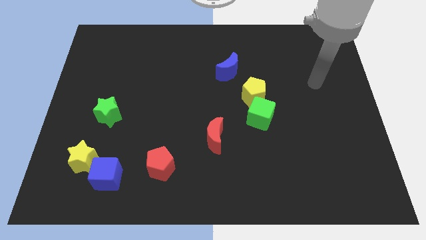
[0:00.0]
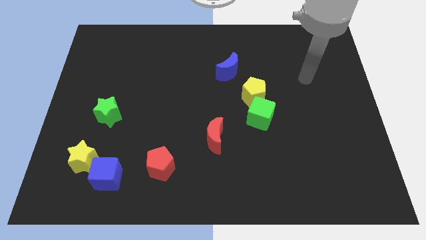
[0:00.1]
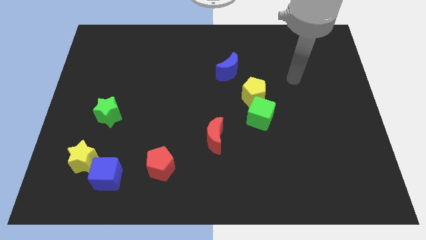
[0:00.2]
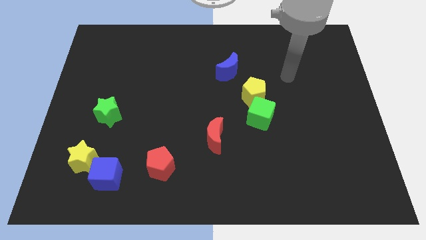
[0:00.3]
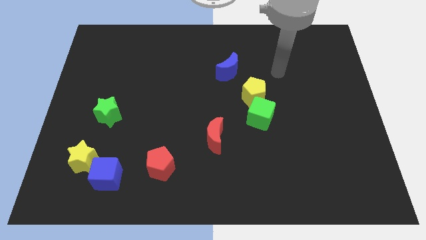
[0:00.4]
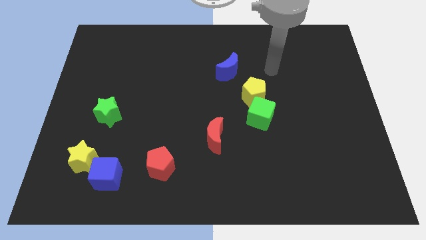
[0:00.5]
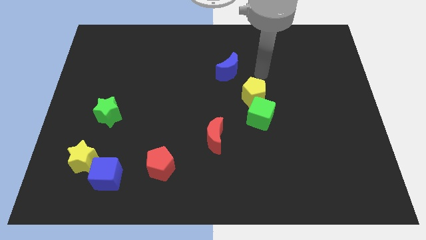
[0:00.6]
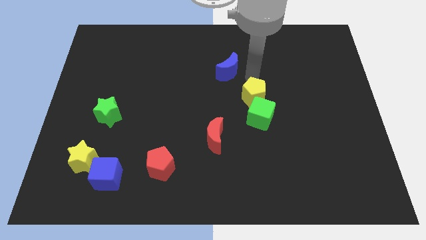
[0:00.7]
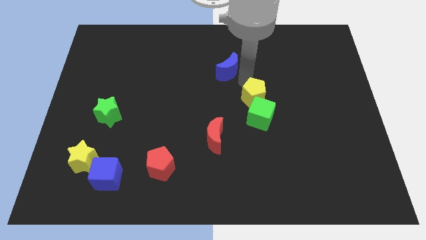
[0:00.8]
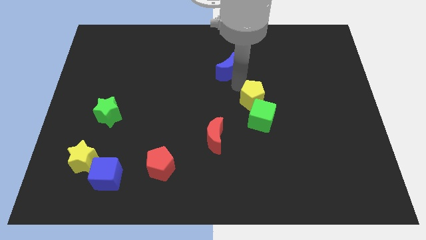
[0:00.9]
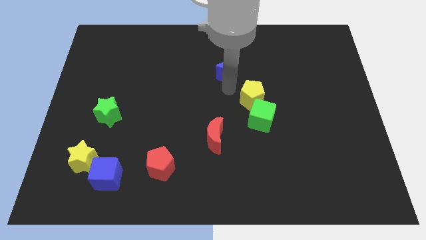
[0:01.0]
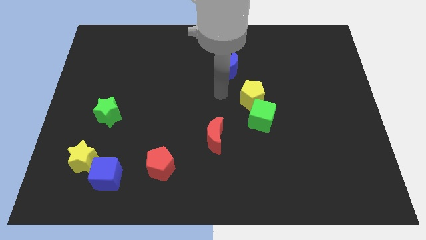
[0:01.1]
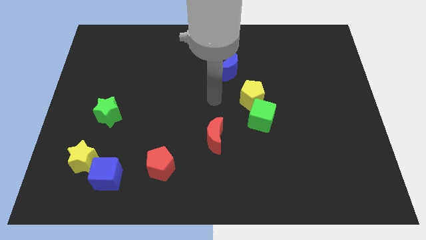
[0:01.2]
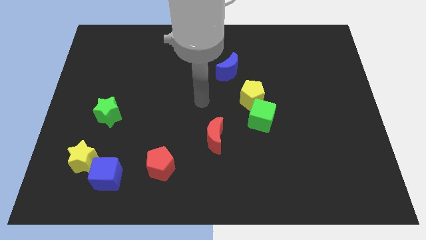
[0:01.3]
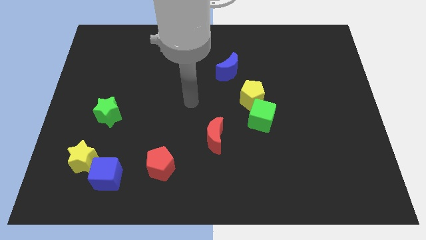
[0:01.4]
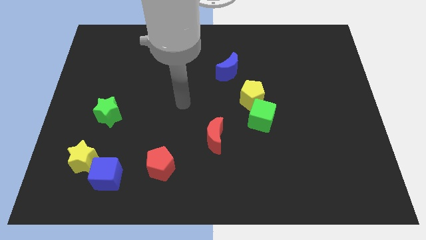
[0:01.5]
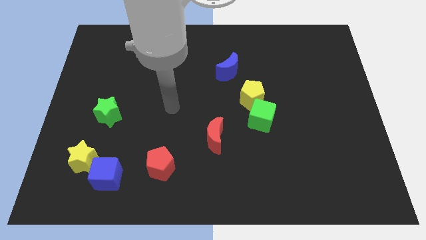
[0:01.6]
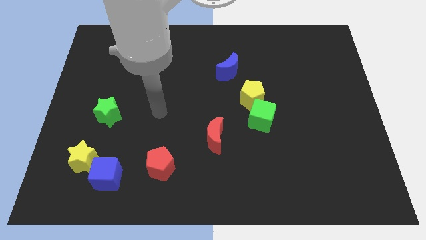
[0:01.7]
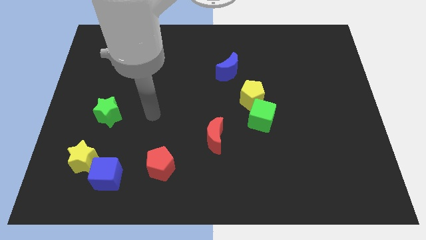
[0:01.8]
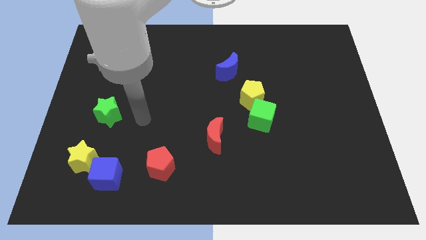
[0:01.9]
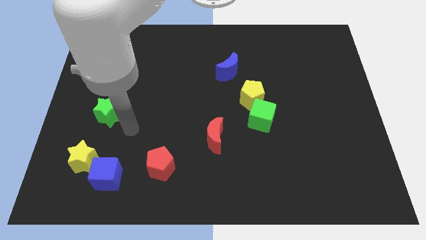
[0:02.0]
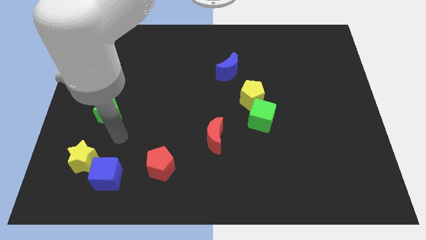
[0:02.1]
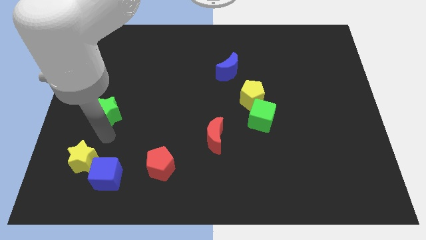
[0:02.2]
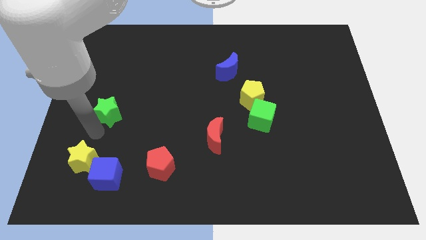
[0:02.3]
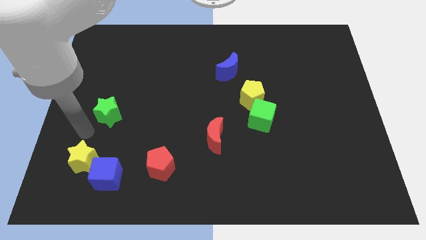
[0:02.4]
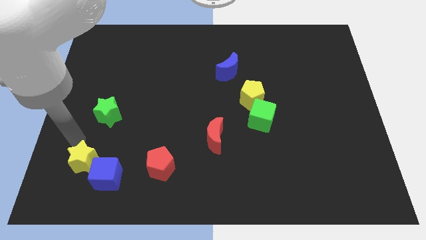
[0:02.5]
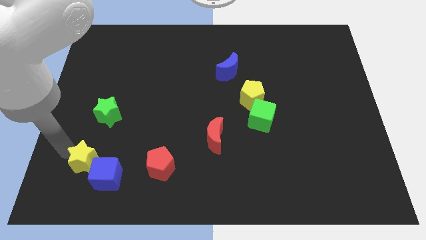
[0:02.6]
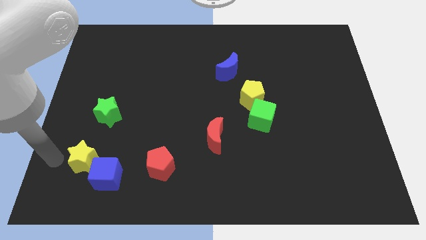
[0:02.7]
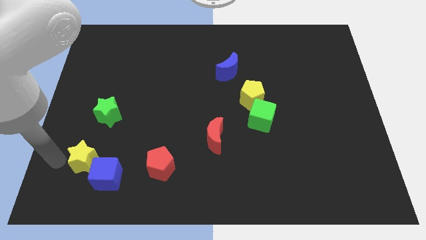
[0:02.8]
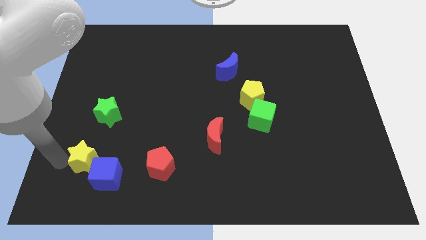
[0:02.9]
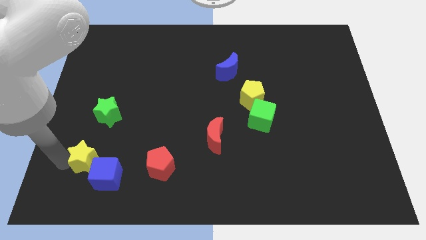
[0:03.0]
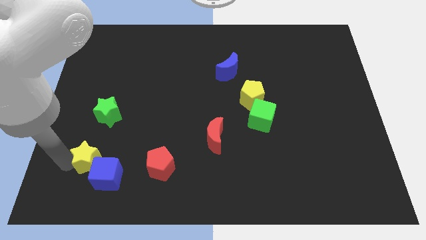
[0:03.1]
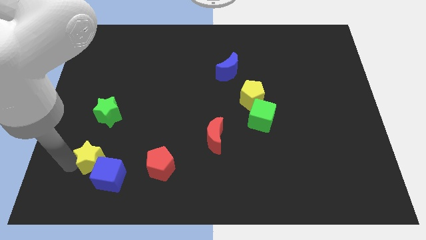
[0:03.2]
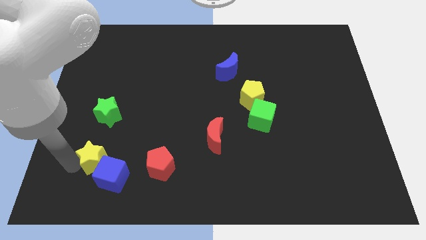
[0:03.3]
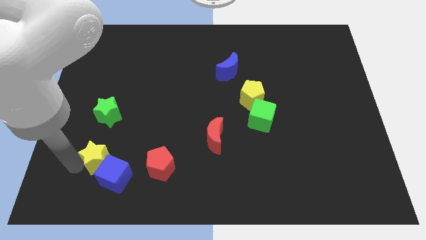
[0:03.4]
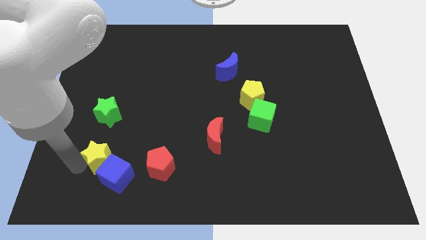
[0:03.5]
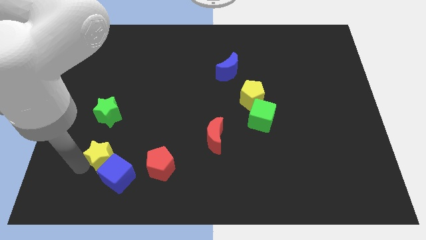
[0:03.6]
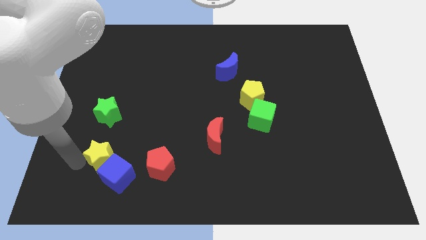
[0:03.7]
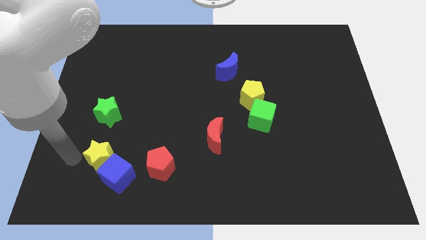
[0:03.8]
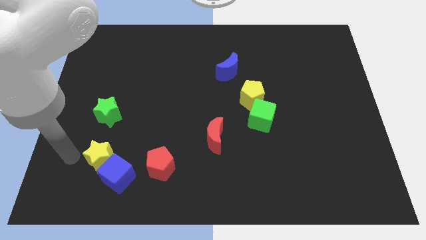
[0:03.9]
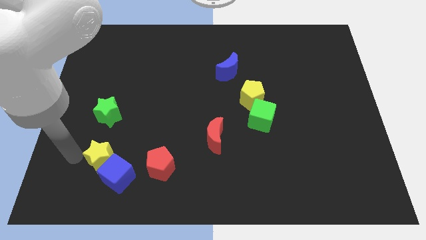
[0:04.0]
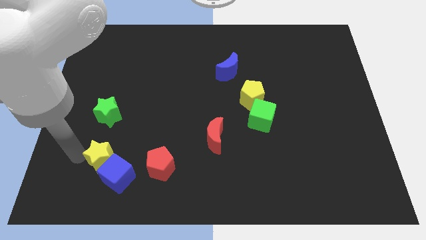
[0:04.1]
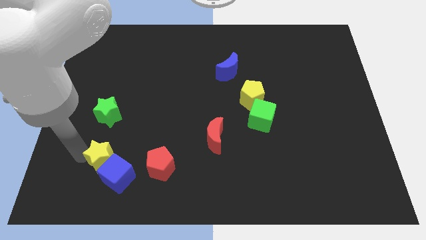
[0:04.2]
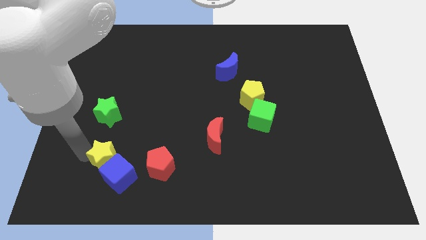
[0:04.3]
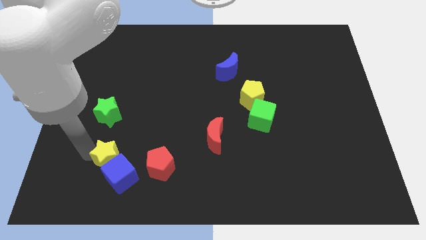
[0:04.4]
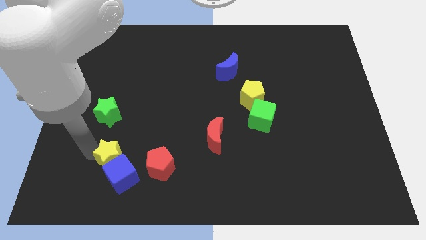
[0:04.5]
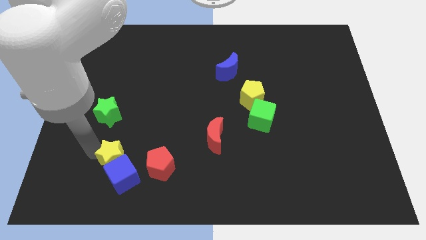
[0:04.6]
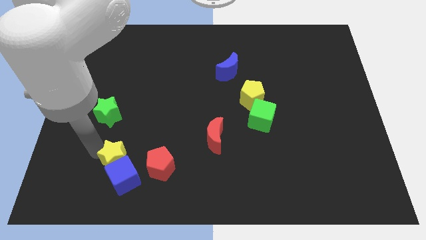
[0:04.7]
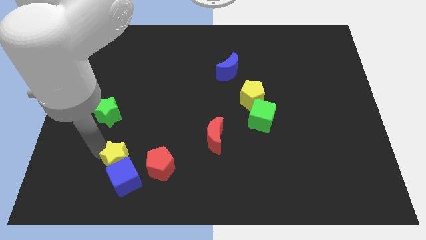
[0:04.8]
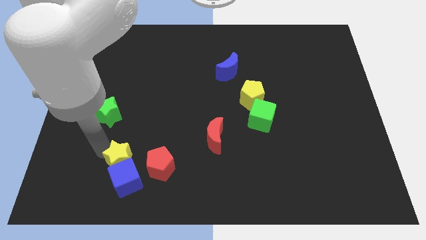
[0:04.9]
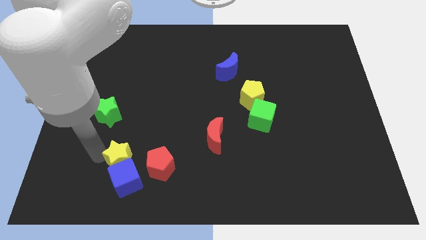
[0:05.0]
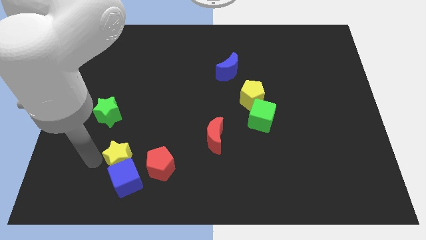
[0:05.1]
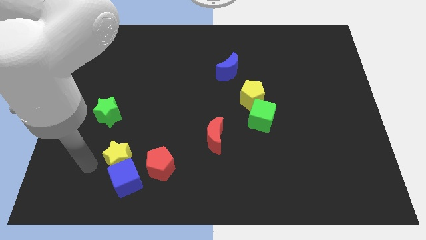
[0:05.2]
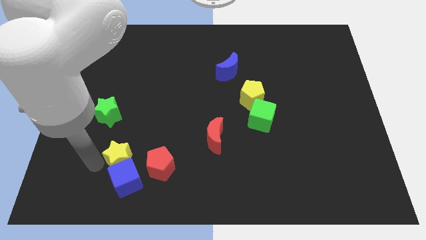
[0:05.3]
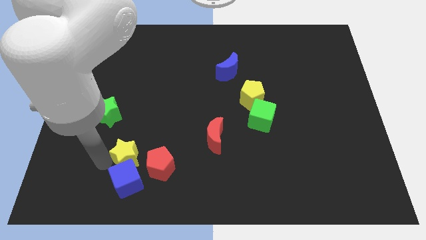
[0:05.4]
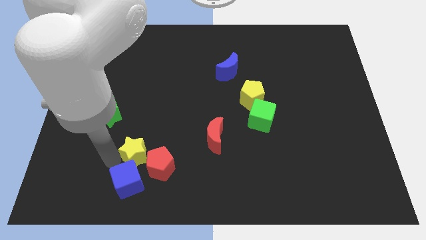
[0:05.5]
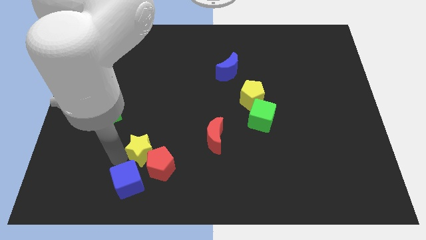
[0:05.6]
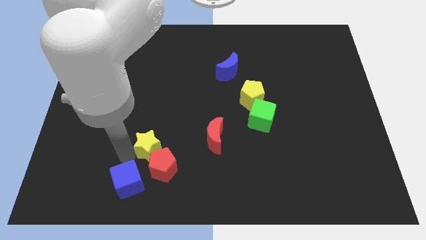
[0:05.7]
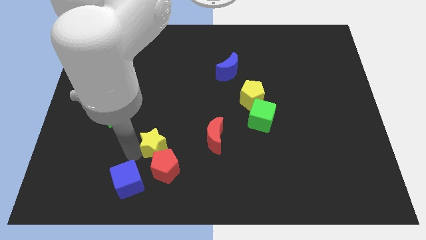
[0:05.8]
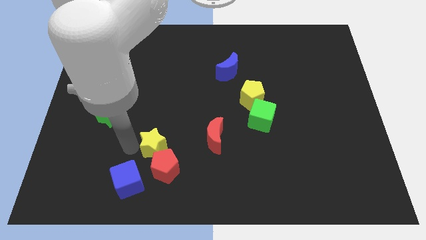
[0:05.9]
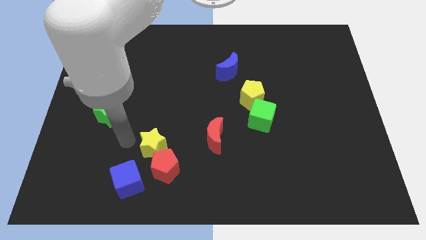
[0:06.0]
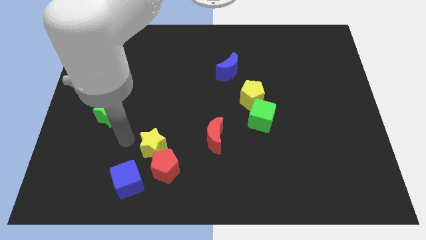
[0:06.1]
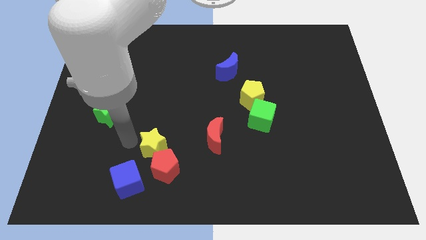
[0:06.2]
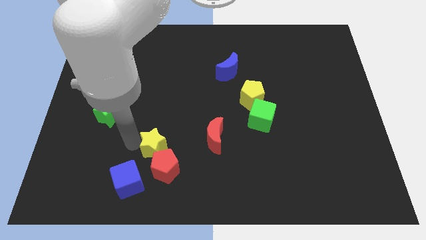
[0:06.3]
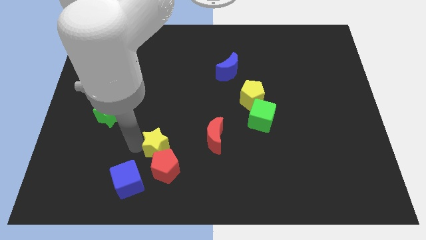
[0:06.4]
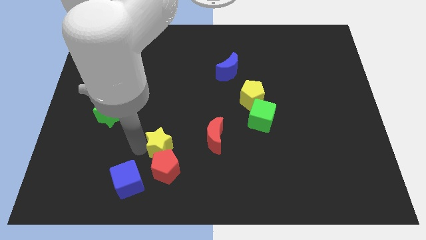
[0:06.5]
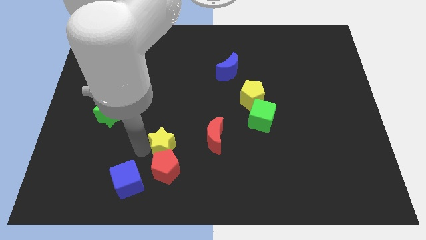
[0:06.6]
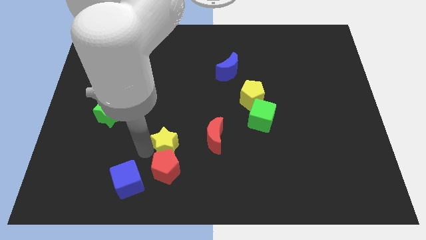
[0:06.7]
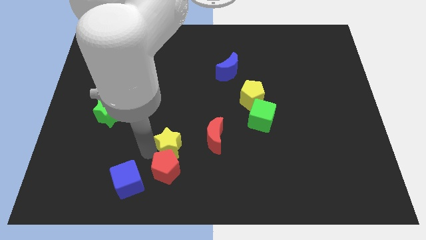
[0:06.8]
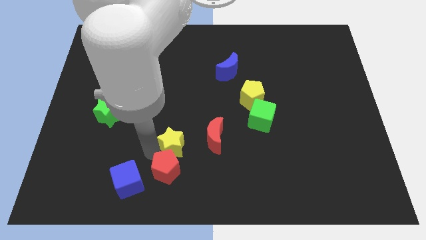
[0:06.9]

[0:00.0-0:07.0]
slide the yellow star diagonally down and to the left of the red moon
